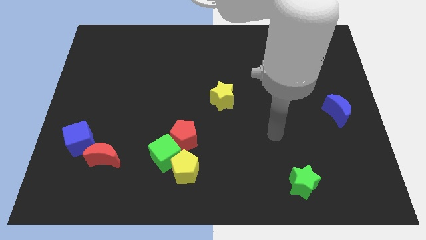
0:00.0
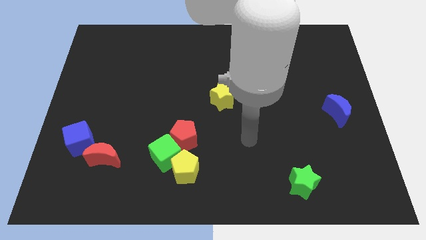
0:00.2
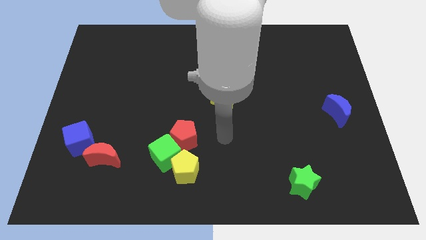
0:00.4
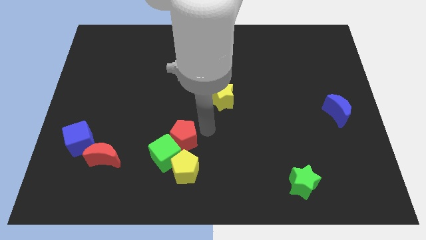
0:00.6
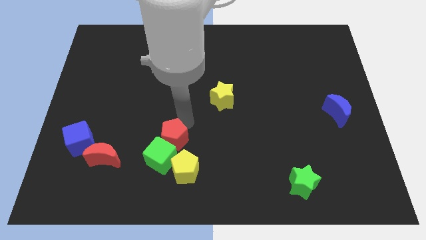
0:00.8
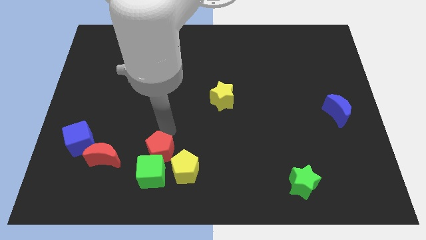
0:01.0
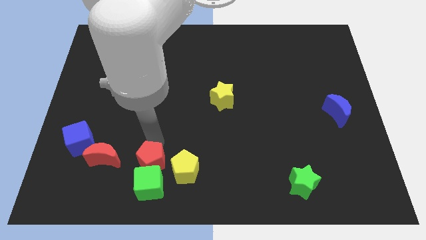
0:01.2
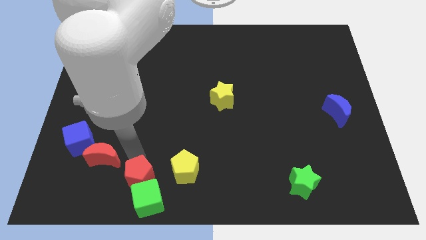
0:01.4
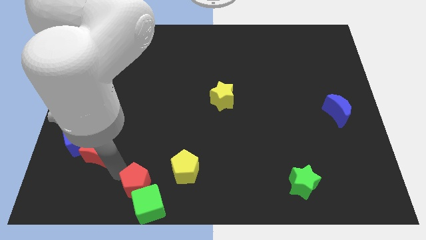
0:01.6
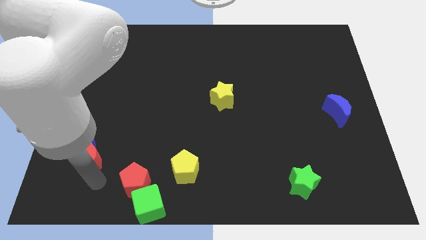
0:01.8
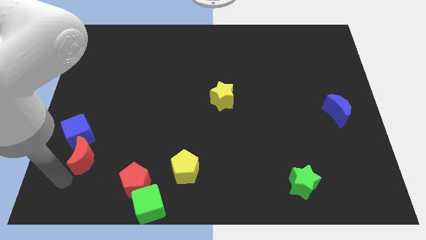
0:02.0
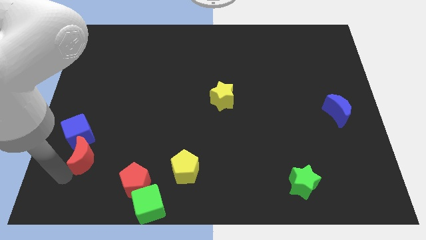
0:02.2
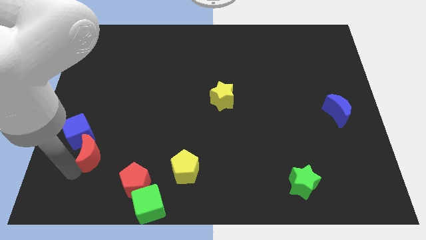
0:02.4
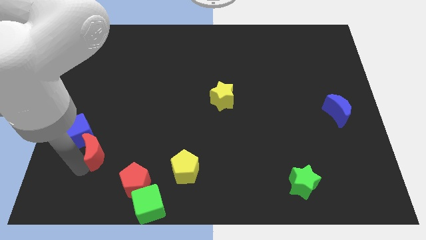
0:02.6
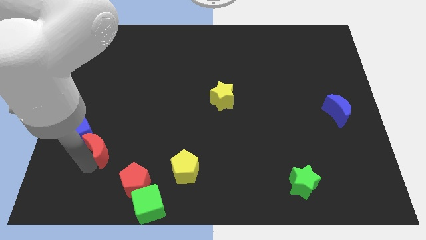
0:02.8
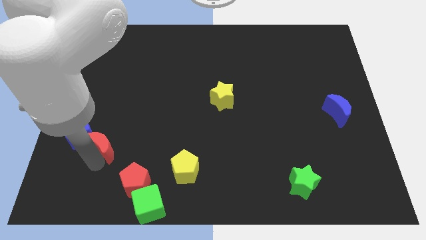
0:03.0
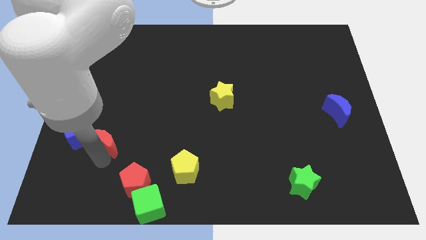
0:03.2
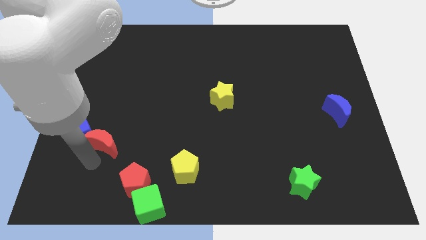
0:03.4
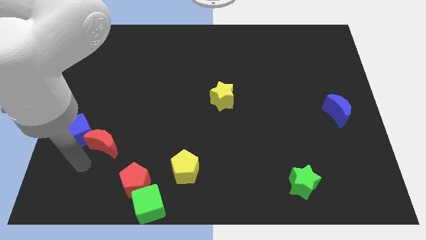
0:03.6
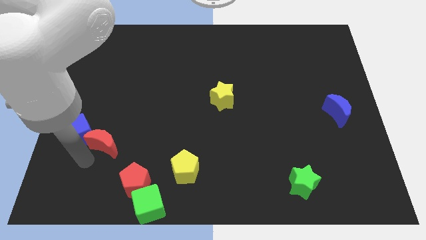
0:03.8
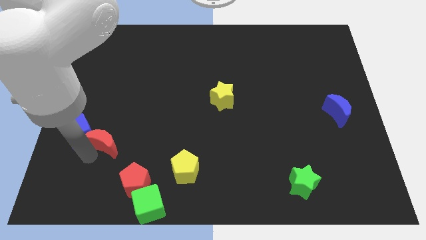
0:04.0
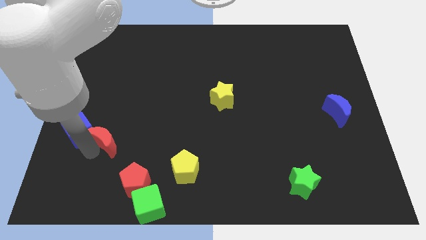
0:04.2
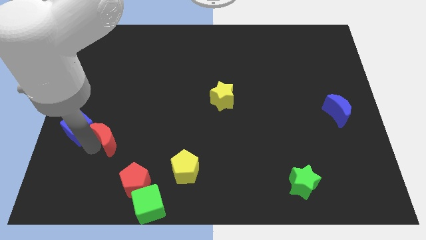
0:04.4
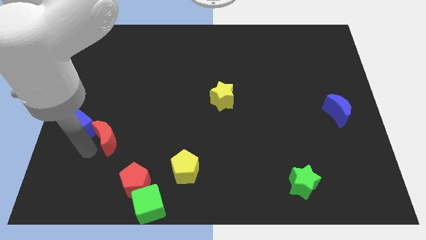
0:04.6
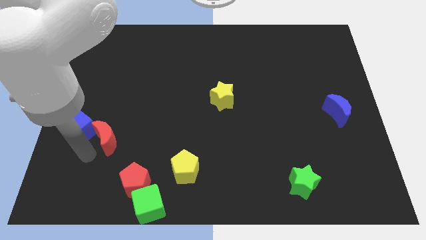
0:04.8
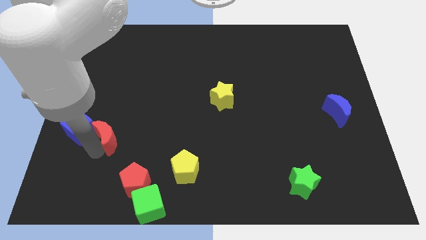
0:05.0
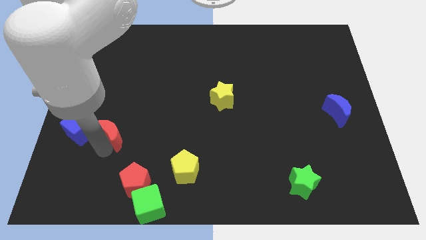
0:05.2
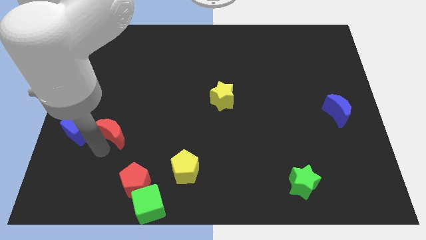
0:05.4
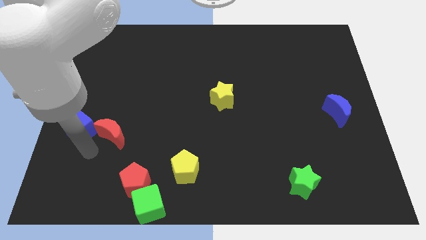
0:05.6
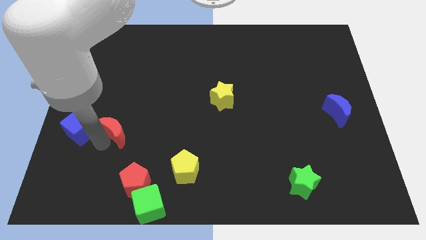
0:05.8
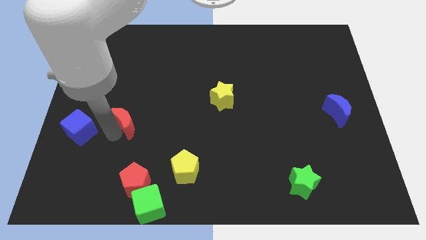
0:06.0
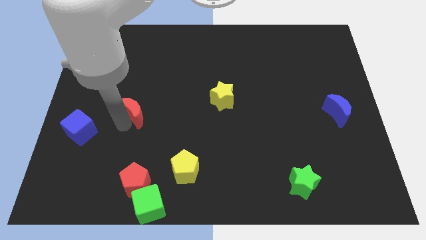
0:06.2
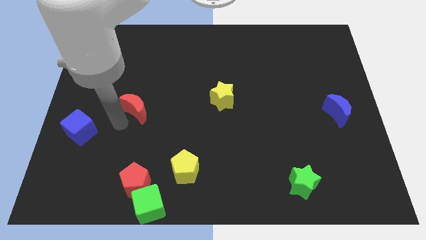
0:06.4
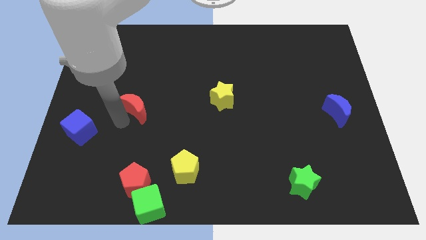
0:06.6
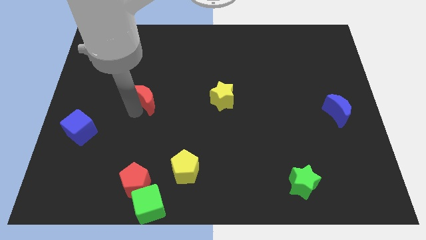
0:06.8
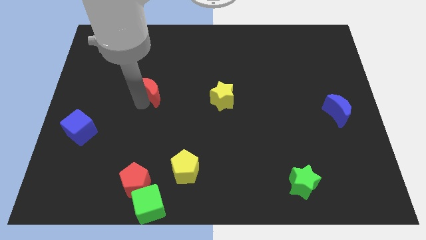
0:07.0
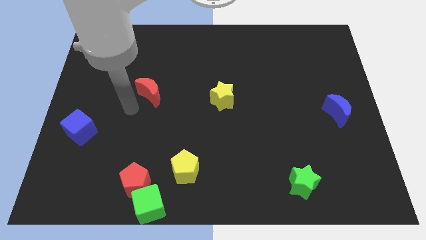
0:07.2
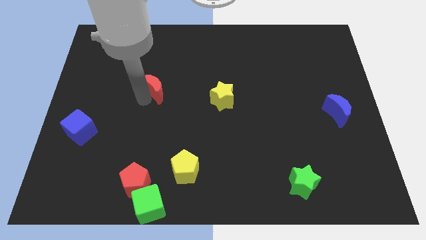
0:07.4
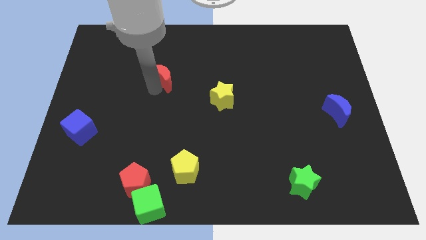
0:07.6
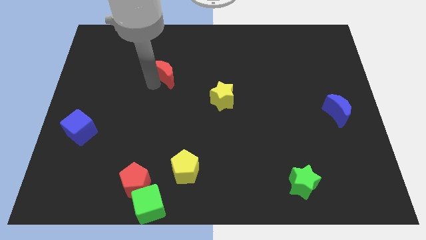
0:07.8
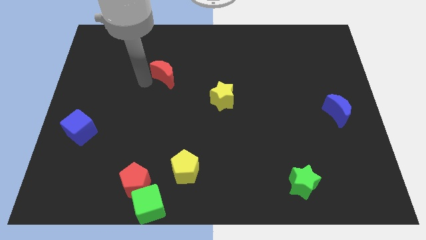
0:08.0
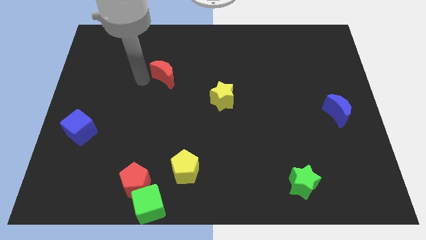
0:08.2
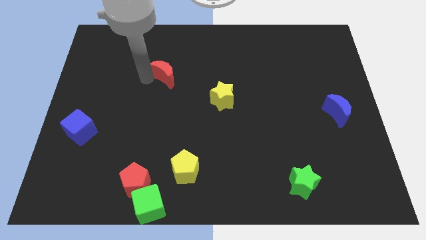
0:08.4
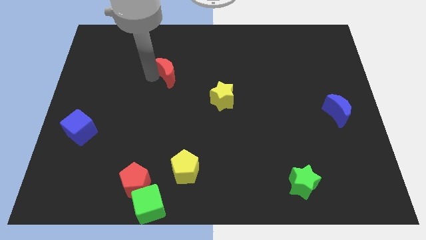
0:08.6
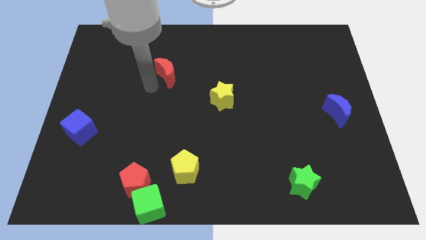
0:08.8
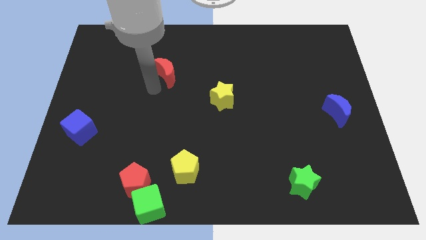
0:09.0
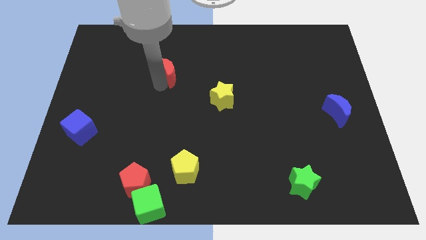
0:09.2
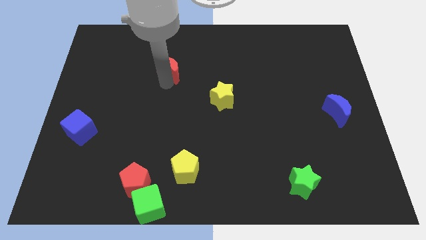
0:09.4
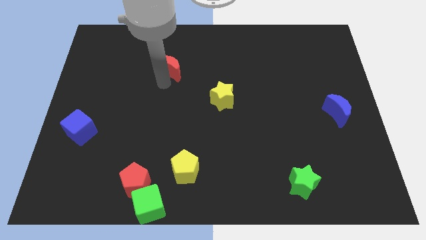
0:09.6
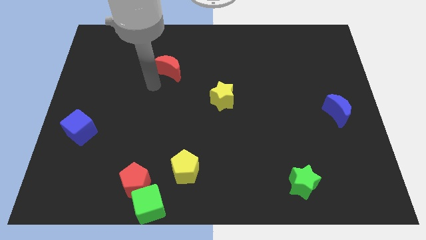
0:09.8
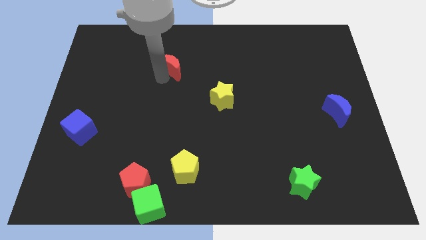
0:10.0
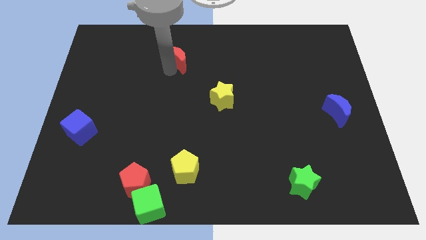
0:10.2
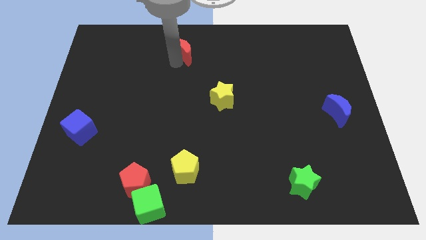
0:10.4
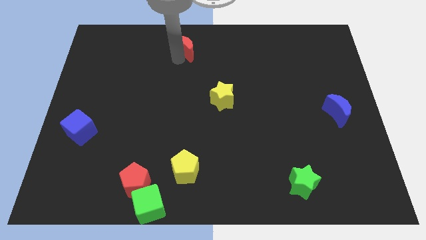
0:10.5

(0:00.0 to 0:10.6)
push the red moon to the towards your base
